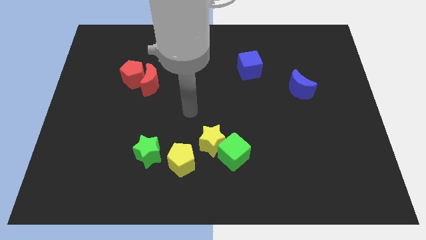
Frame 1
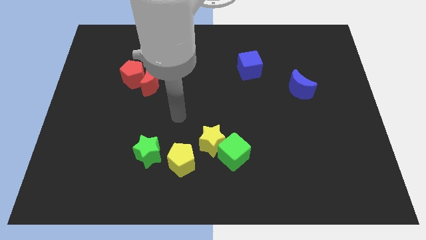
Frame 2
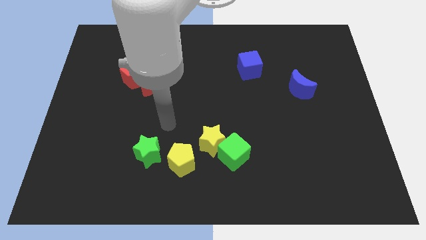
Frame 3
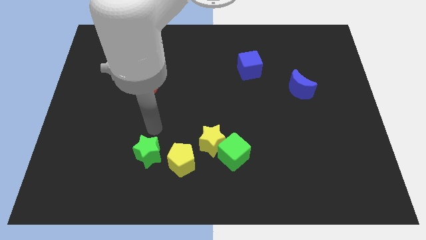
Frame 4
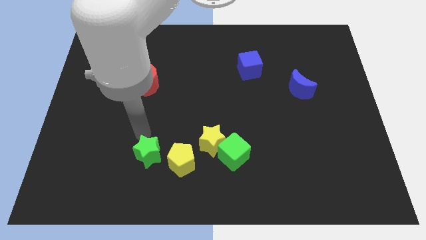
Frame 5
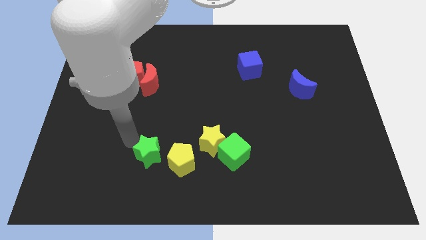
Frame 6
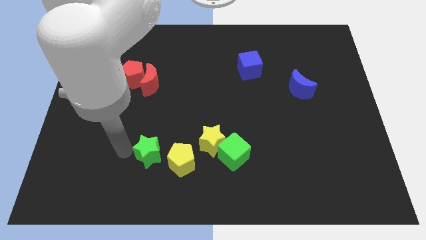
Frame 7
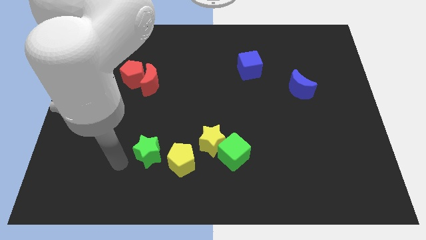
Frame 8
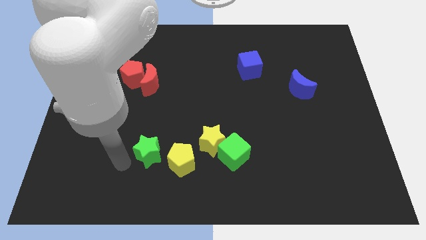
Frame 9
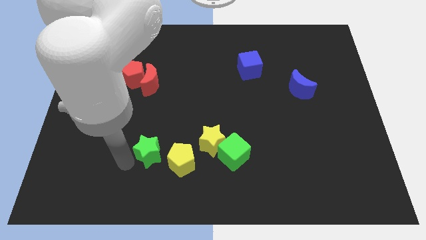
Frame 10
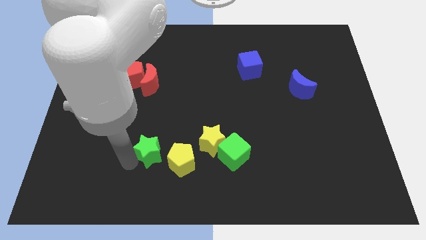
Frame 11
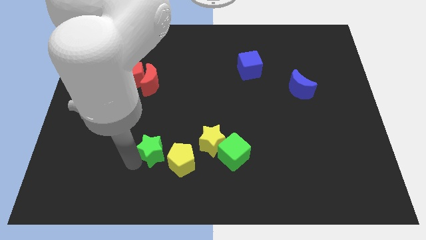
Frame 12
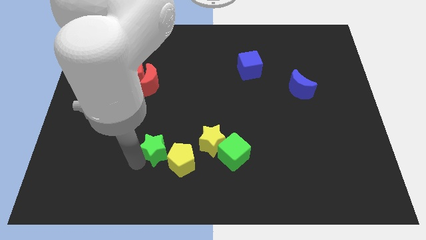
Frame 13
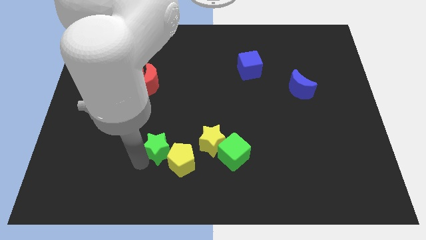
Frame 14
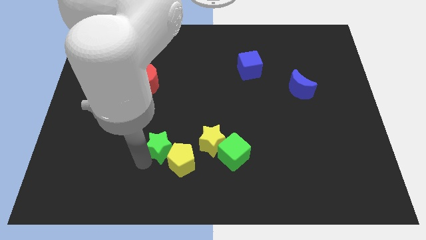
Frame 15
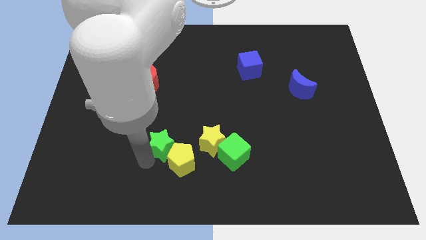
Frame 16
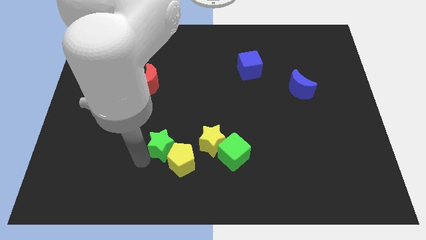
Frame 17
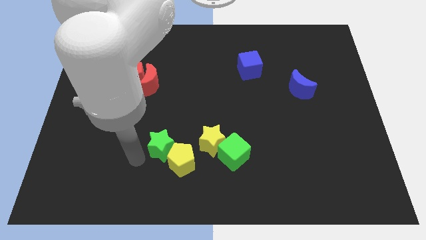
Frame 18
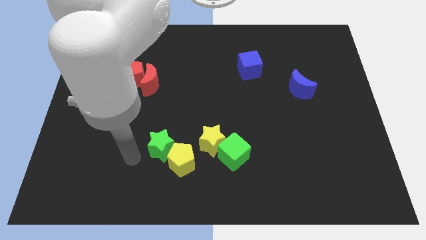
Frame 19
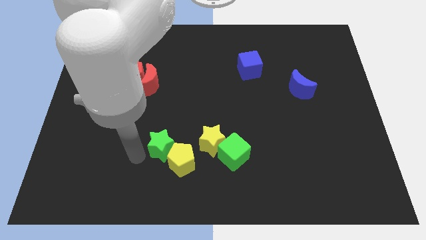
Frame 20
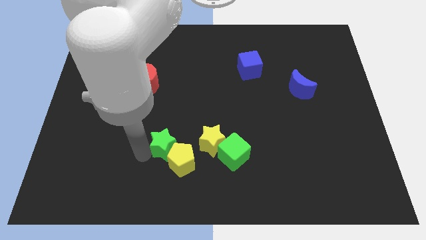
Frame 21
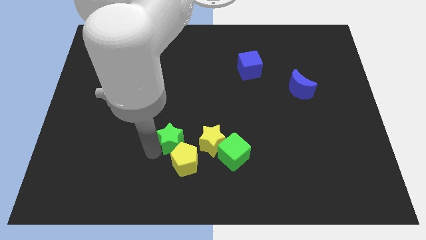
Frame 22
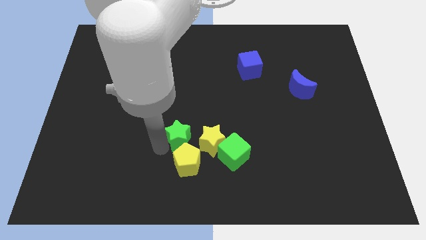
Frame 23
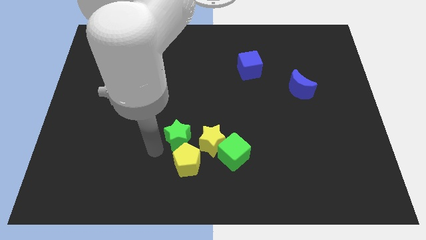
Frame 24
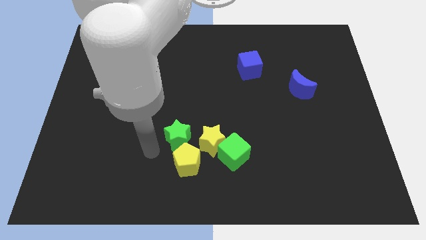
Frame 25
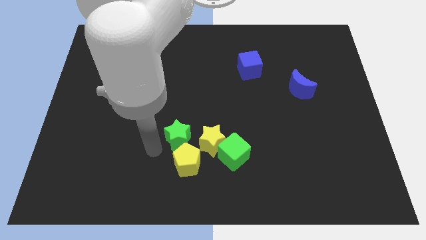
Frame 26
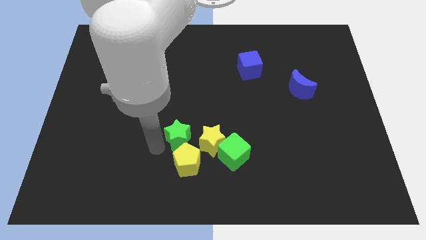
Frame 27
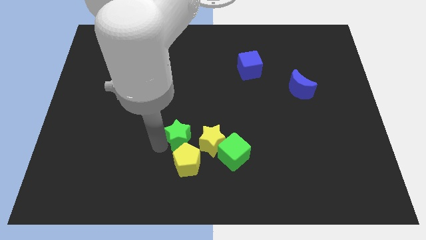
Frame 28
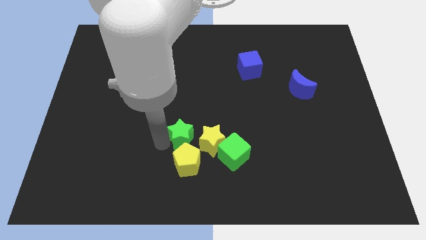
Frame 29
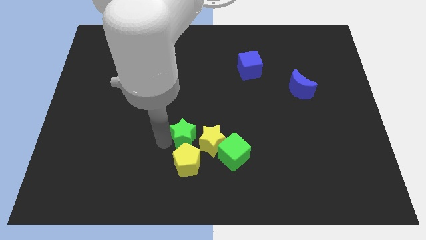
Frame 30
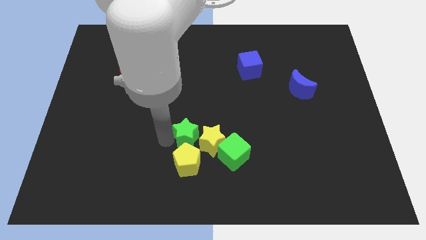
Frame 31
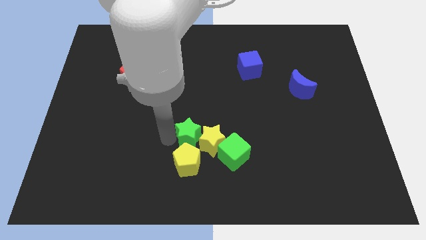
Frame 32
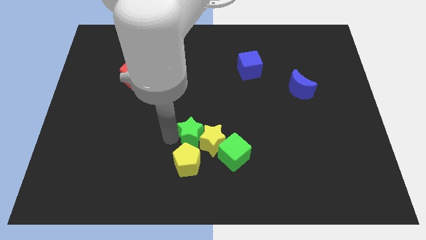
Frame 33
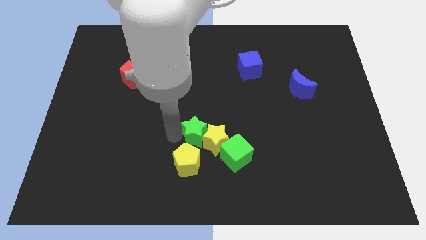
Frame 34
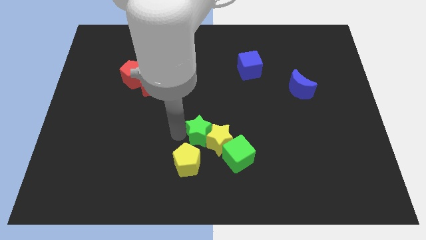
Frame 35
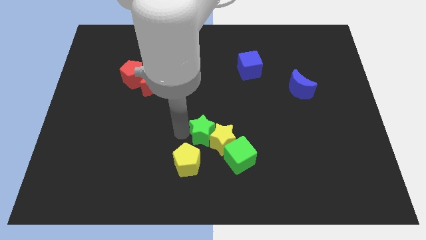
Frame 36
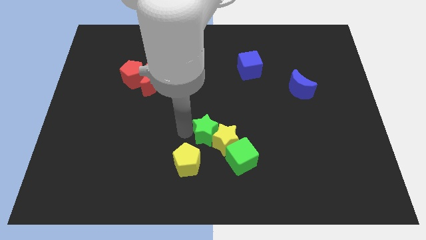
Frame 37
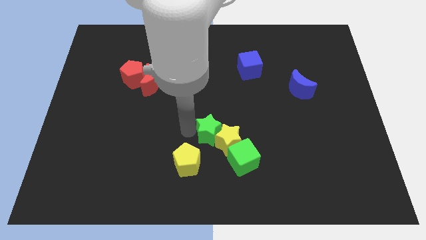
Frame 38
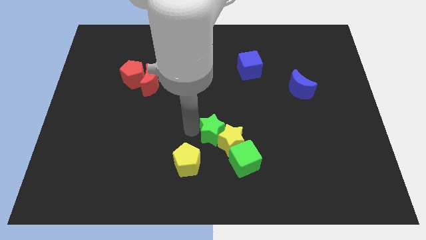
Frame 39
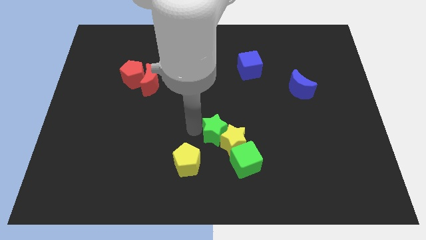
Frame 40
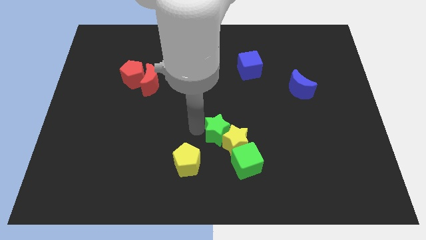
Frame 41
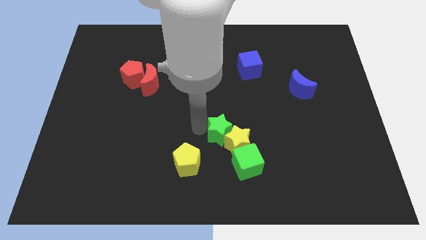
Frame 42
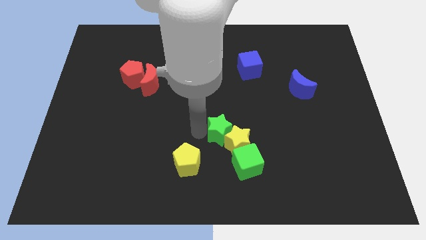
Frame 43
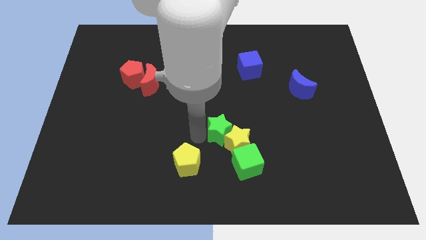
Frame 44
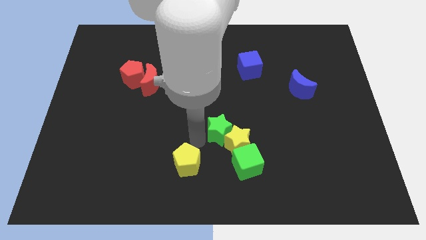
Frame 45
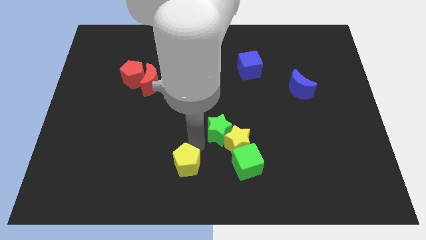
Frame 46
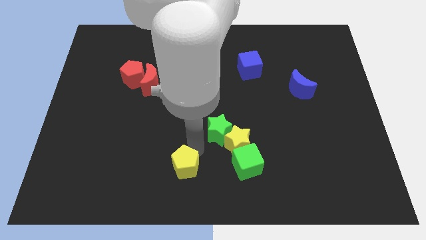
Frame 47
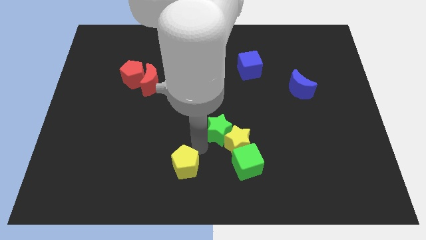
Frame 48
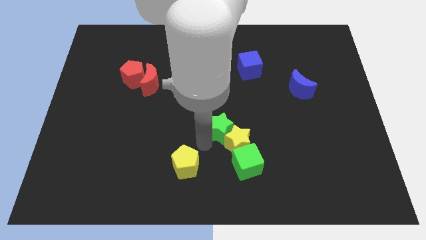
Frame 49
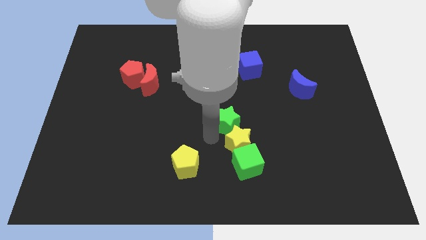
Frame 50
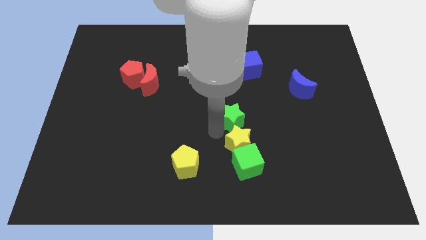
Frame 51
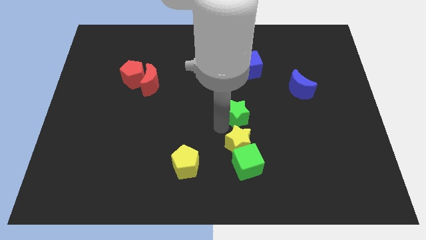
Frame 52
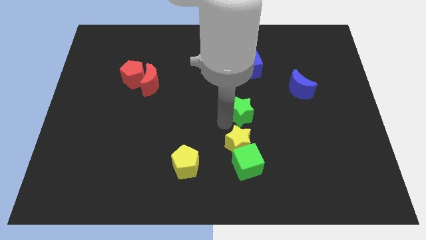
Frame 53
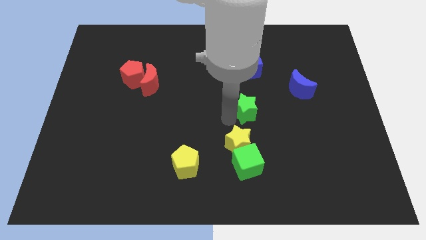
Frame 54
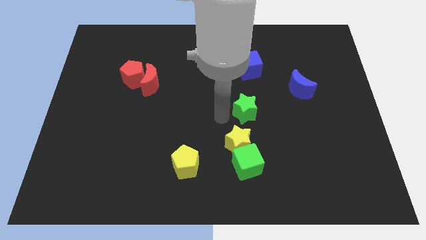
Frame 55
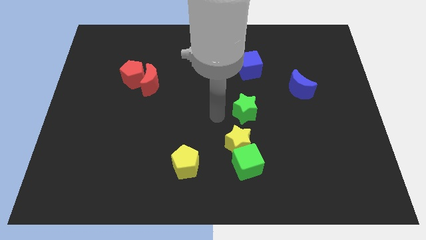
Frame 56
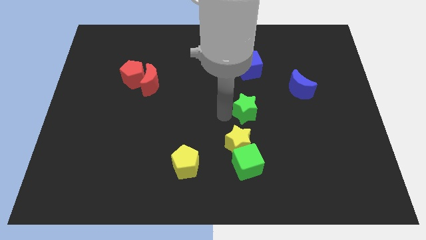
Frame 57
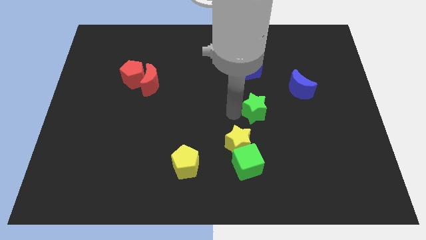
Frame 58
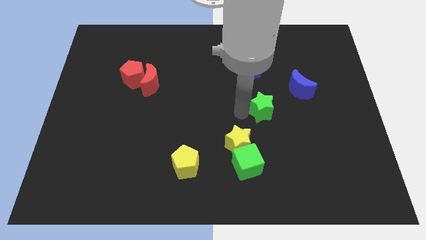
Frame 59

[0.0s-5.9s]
push the green star diagonally down and to the left of the blue moon

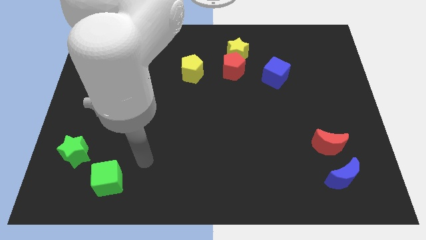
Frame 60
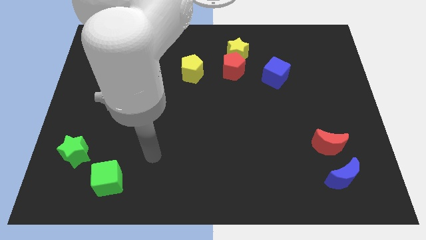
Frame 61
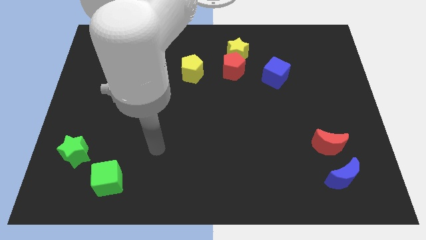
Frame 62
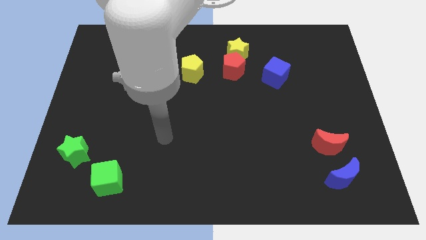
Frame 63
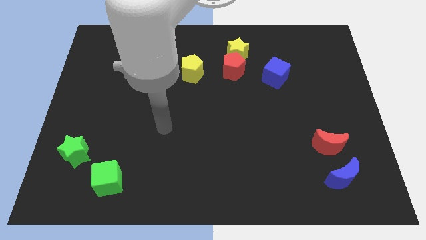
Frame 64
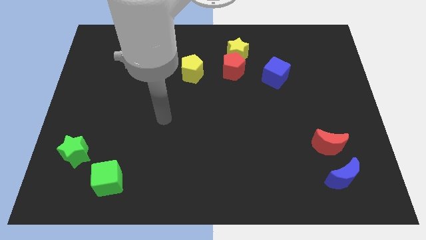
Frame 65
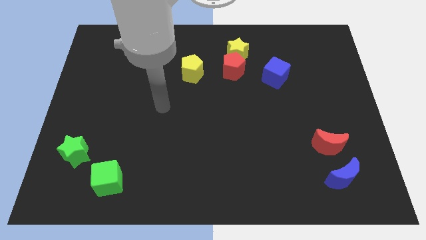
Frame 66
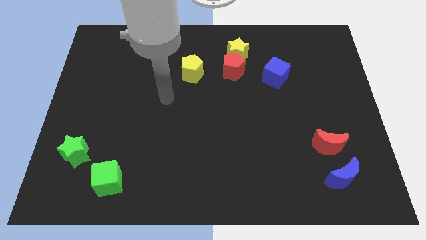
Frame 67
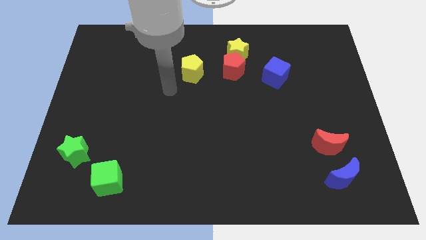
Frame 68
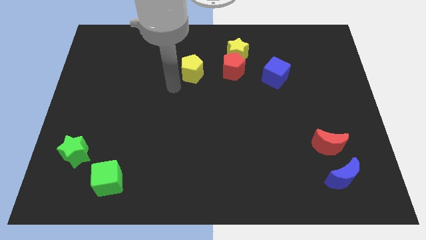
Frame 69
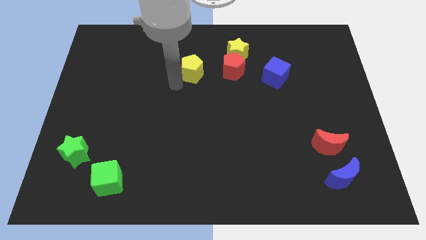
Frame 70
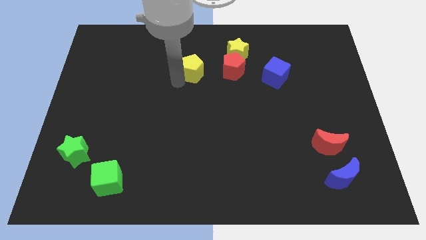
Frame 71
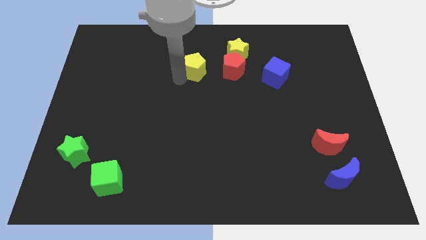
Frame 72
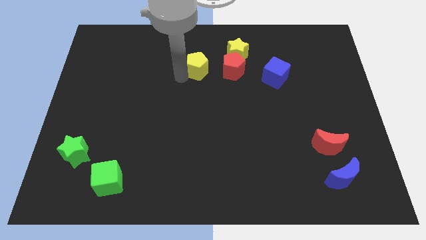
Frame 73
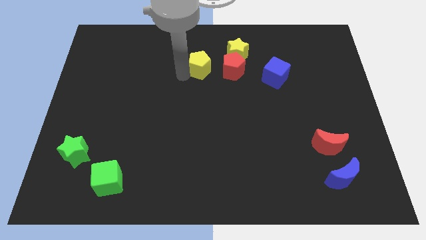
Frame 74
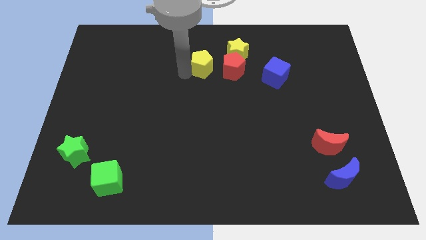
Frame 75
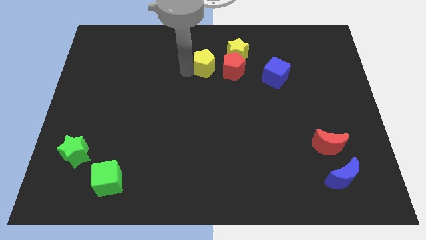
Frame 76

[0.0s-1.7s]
slide the yellow pentagon diagonally up and to the left of the red pentagon
